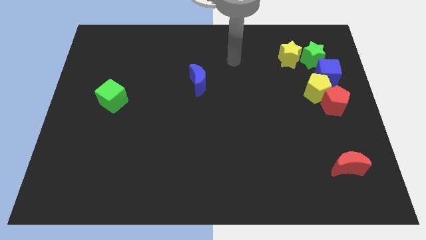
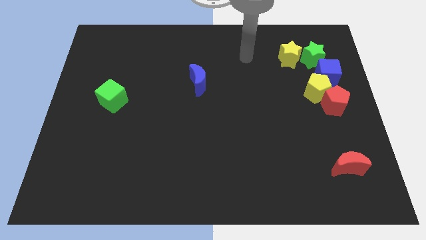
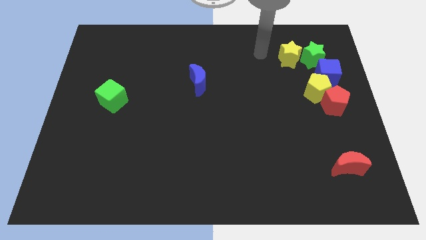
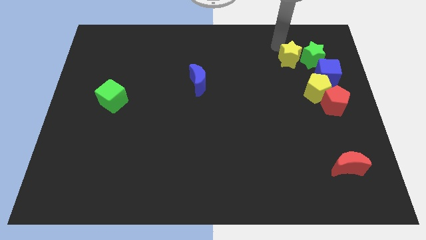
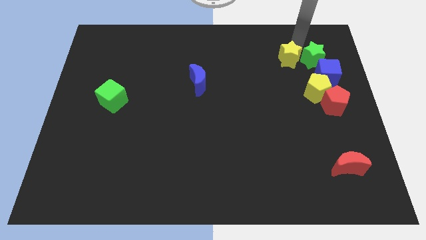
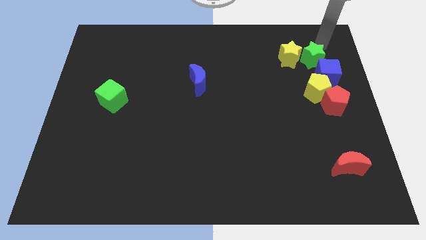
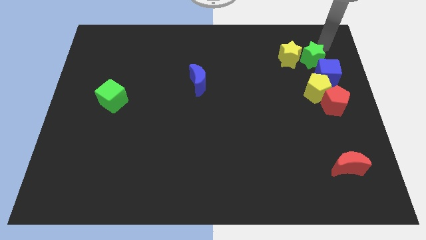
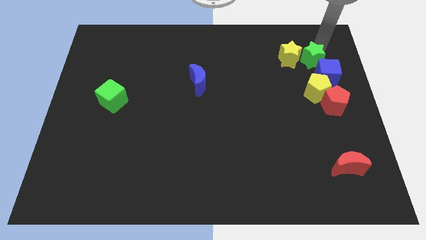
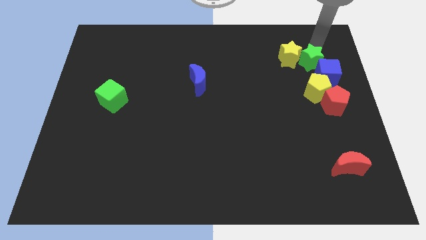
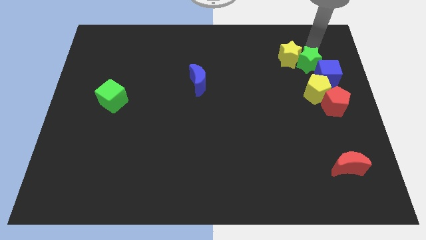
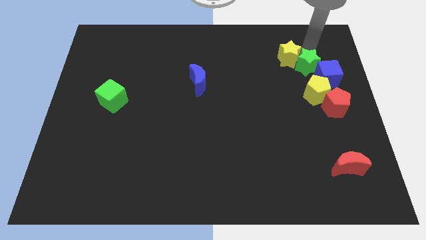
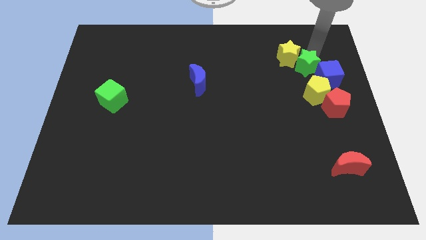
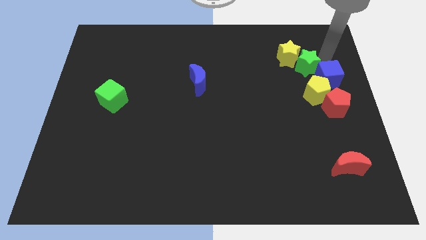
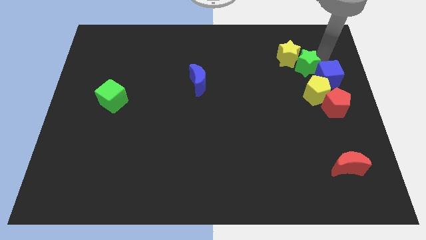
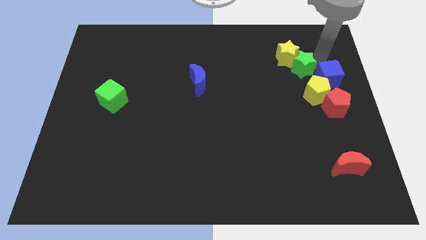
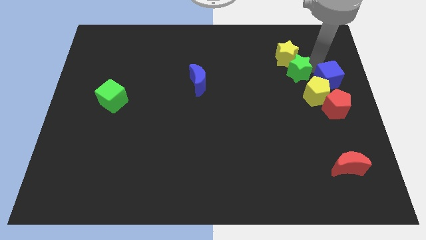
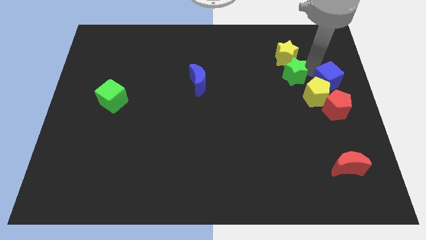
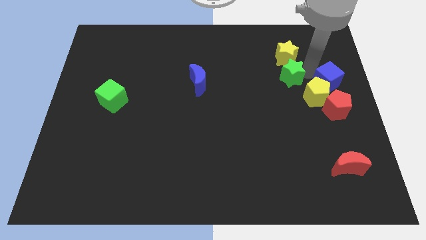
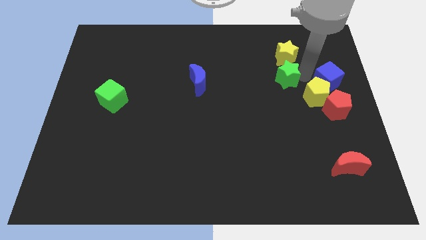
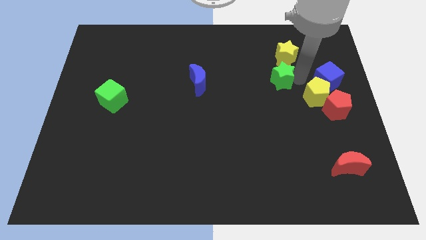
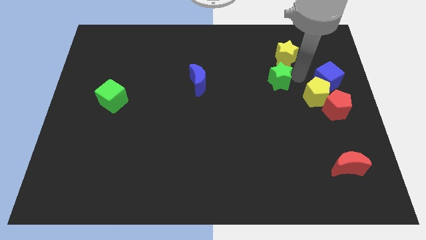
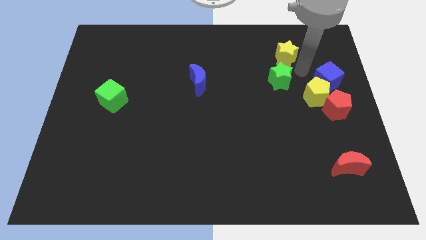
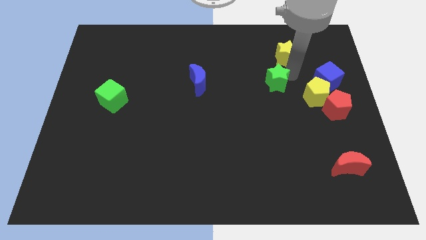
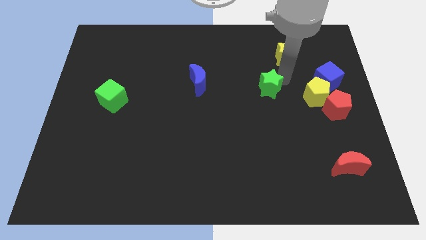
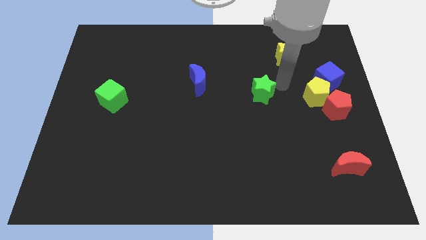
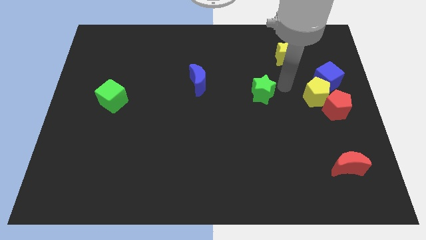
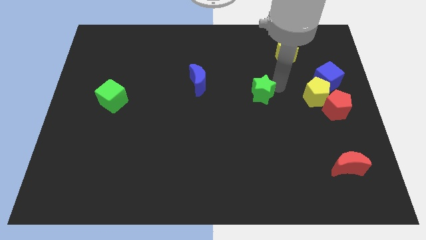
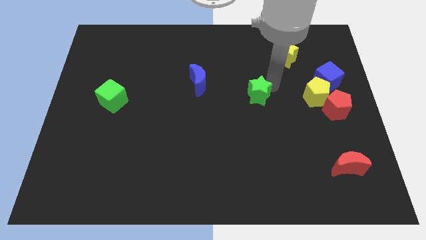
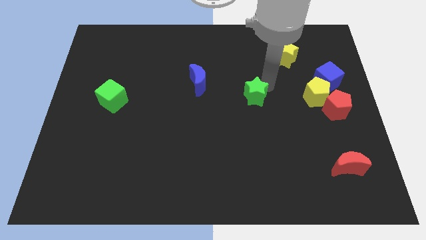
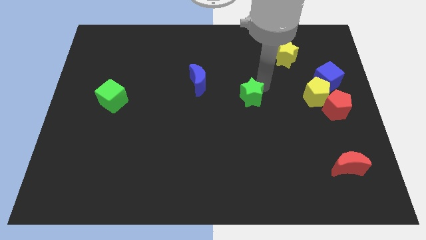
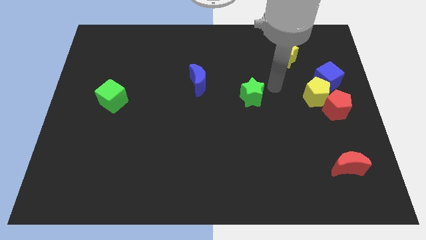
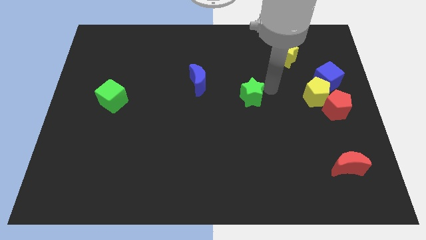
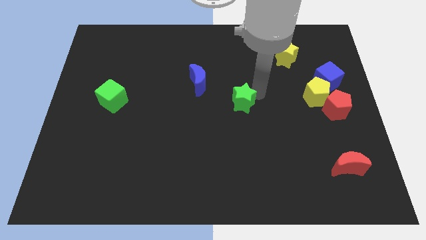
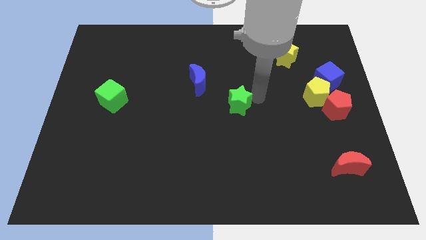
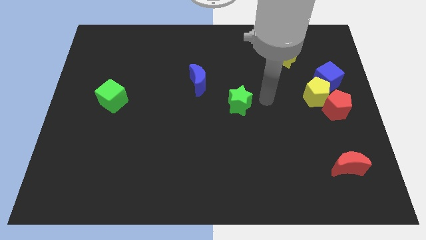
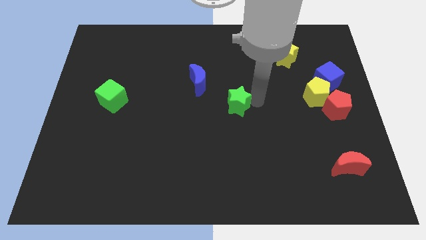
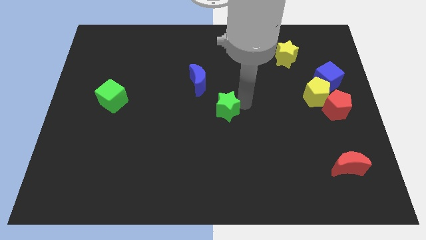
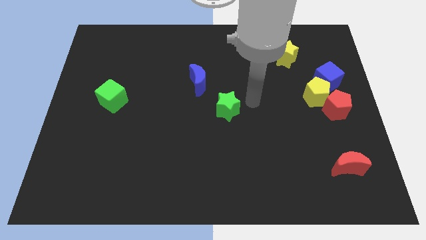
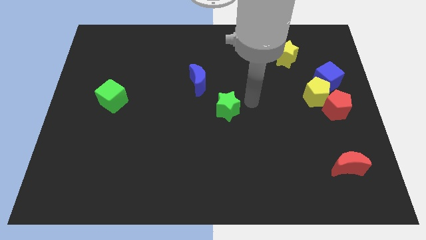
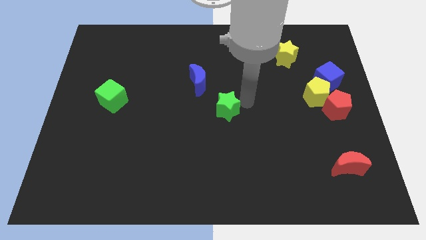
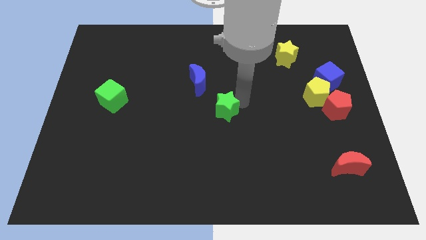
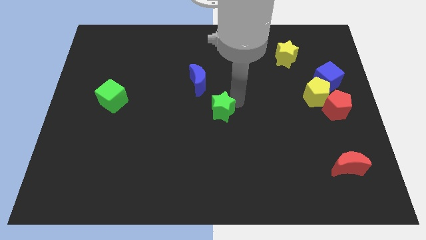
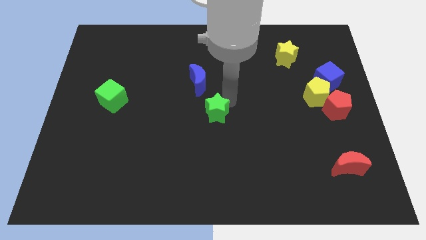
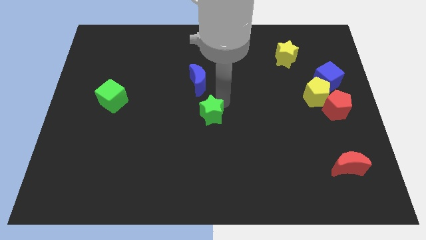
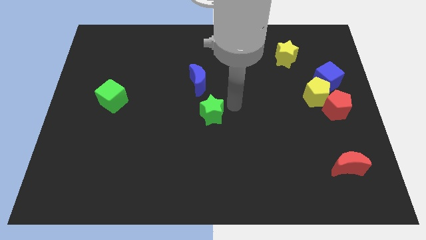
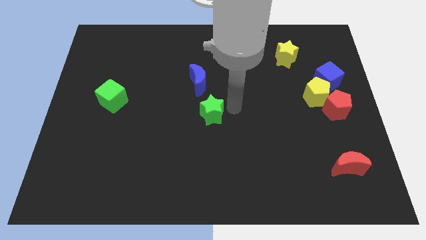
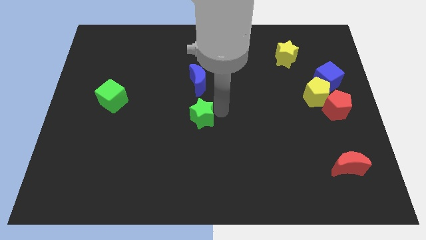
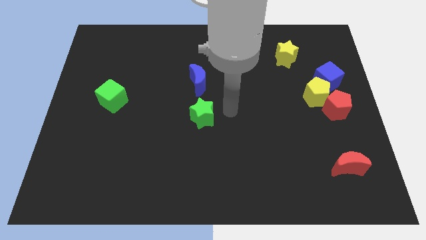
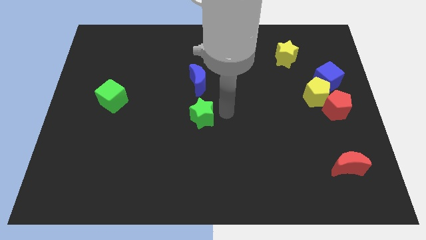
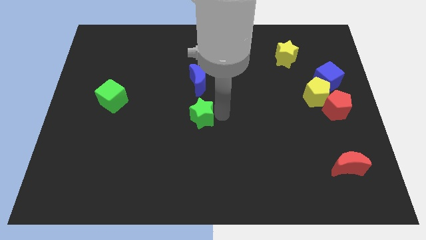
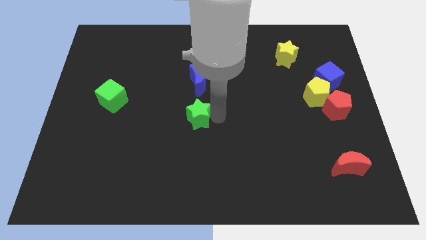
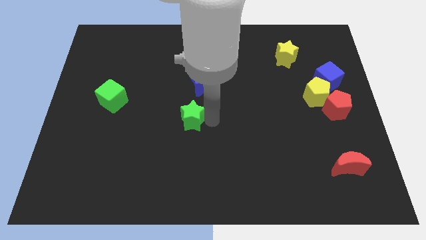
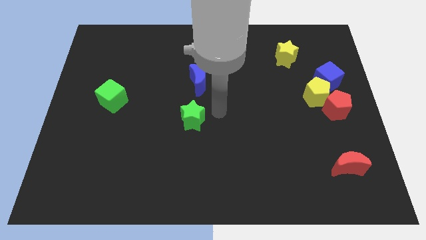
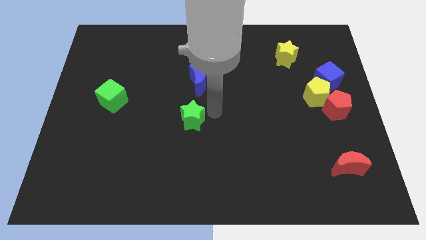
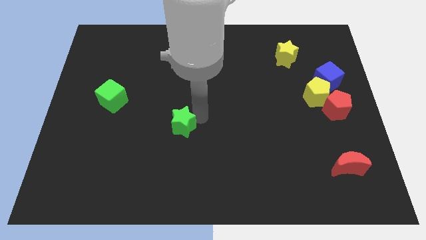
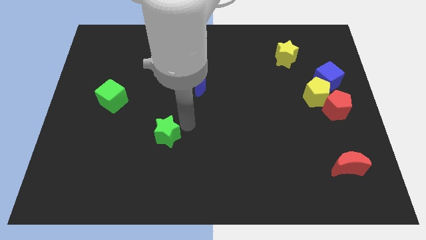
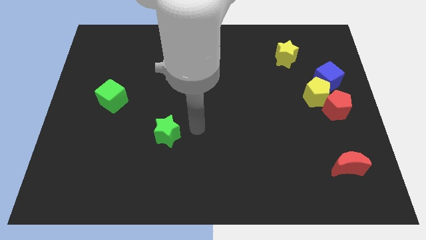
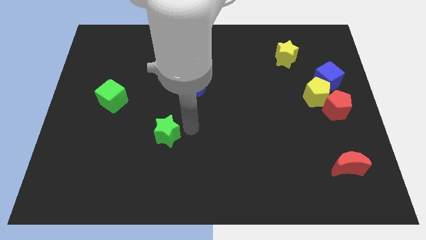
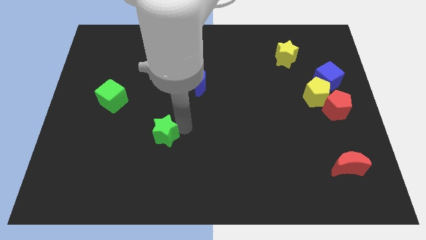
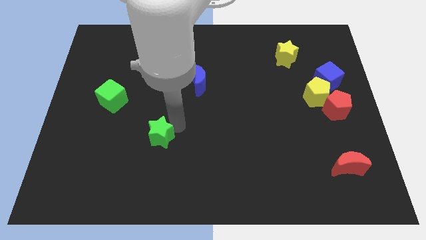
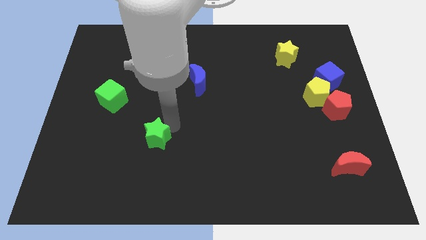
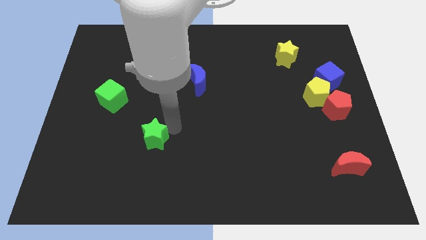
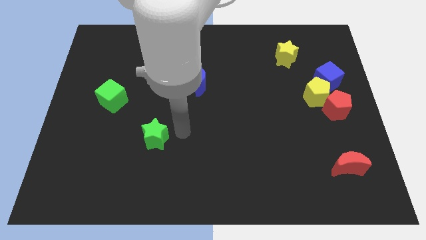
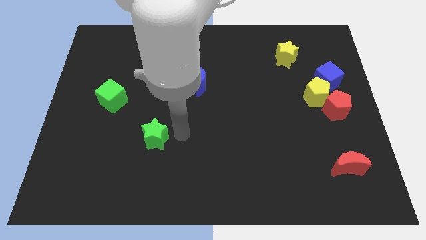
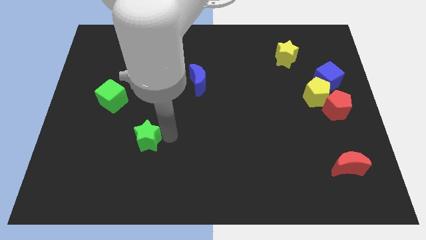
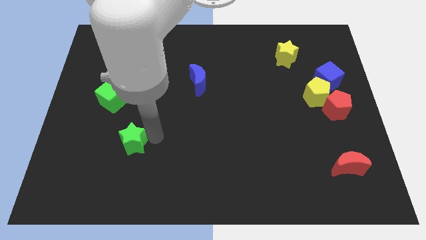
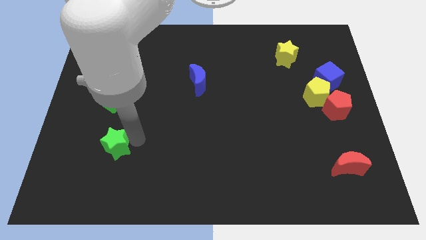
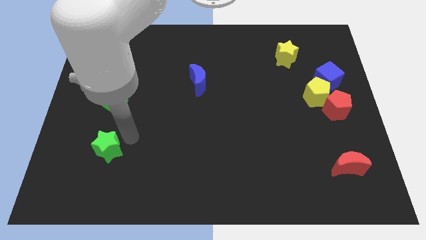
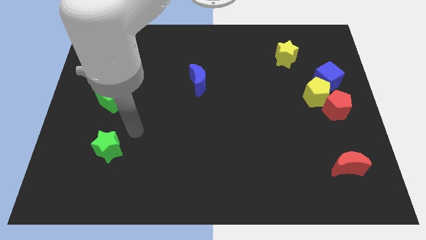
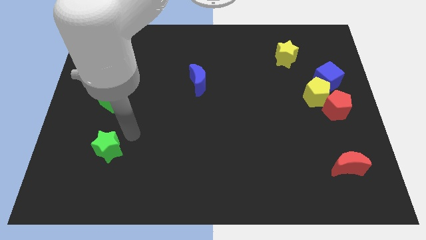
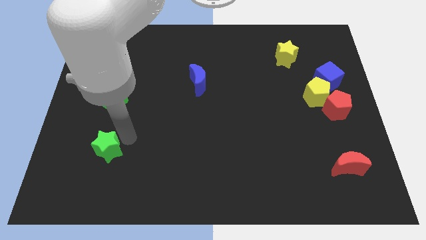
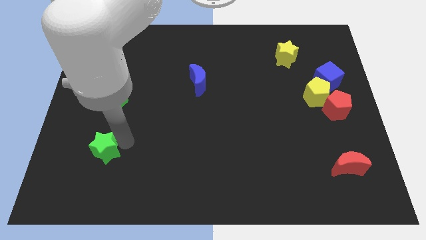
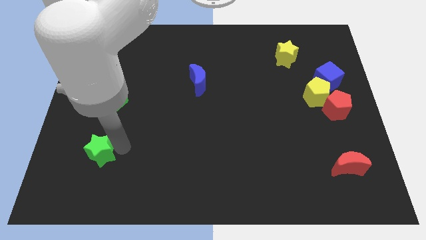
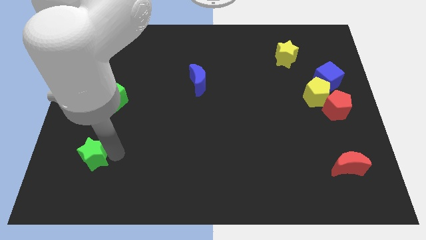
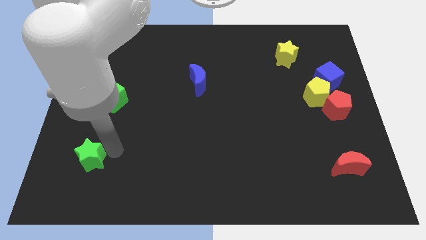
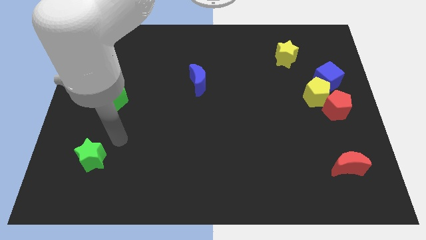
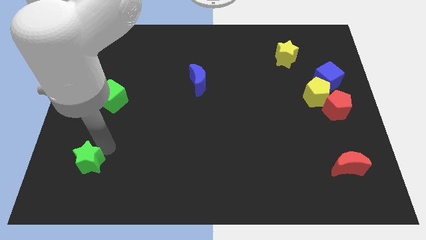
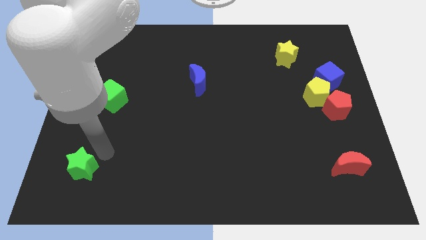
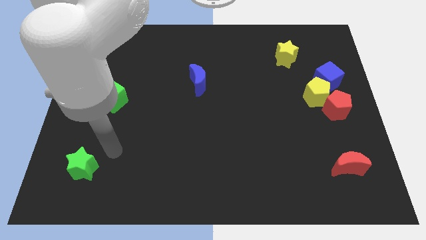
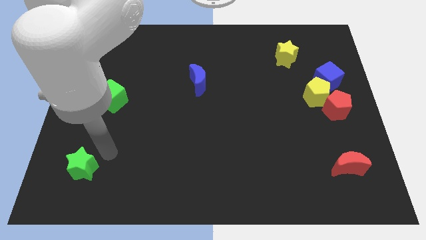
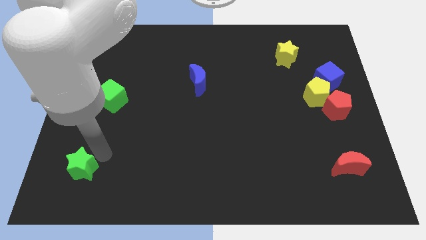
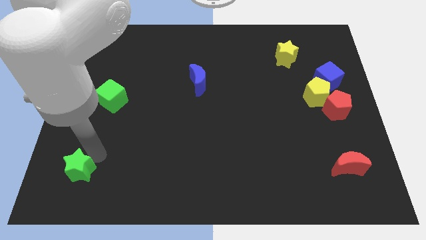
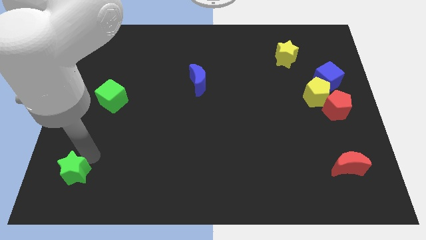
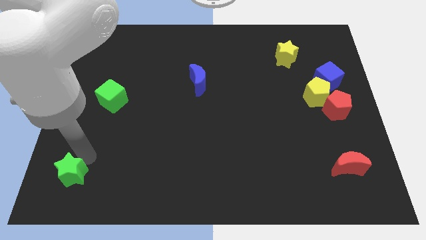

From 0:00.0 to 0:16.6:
move the green star to the bottom left of the board
